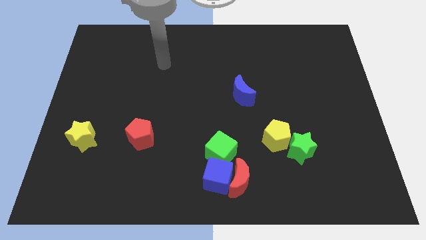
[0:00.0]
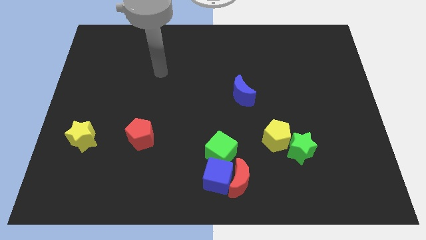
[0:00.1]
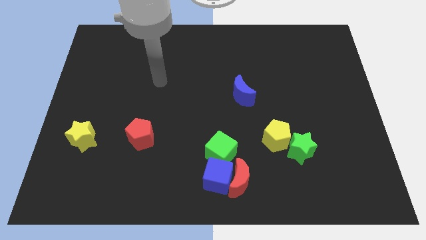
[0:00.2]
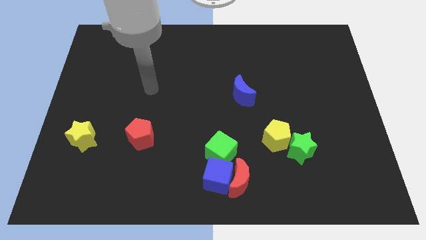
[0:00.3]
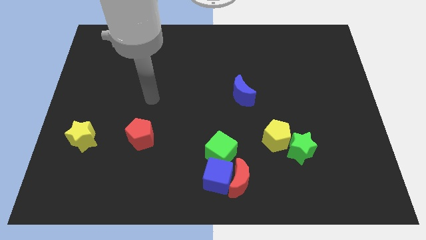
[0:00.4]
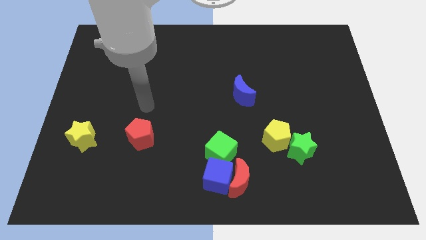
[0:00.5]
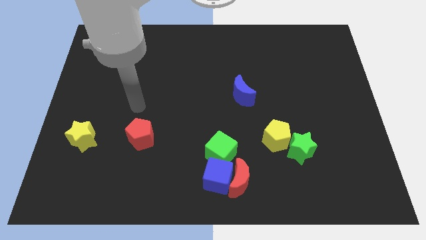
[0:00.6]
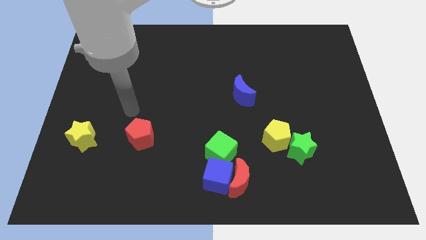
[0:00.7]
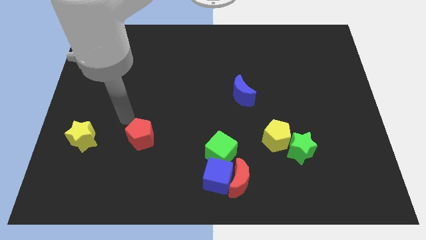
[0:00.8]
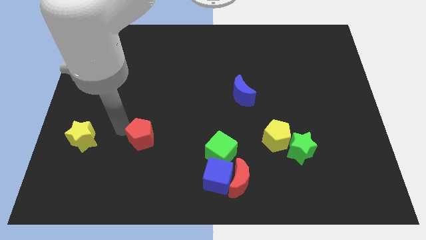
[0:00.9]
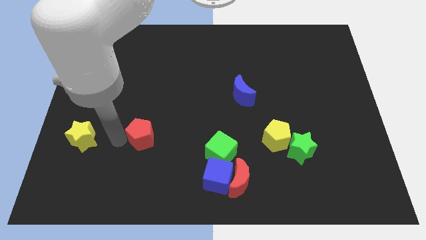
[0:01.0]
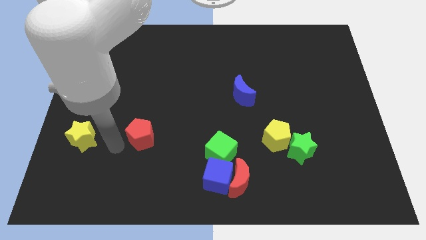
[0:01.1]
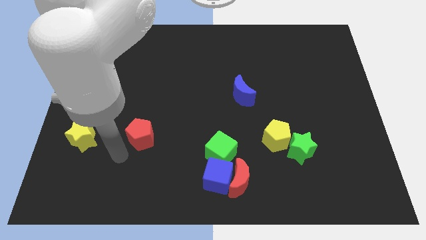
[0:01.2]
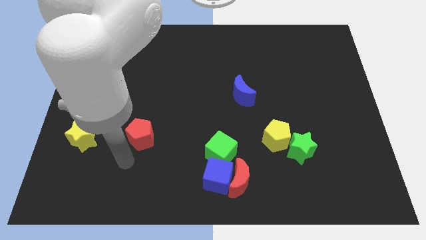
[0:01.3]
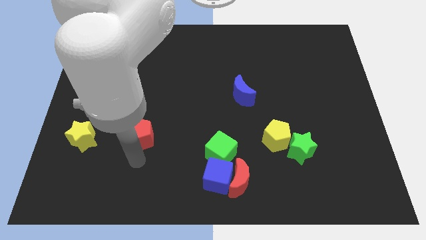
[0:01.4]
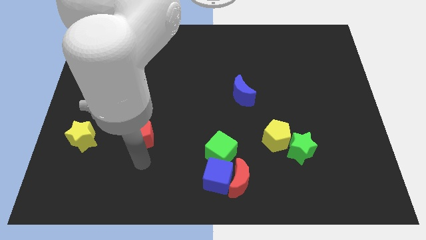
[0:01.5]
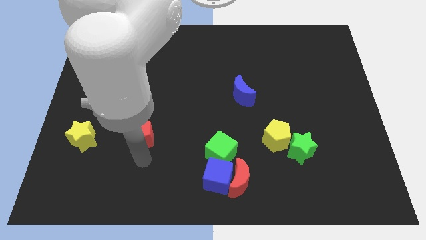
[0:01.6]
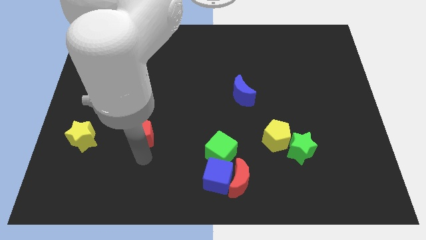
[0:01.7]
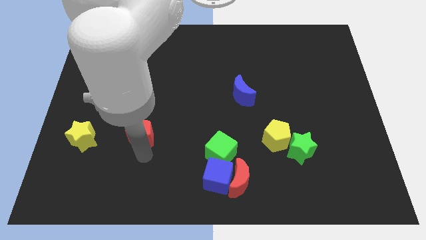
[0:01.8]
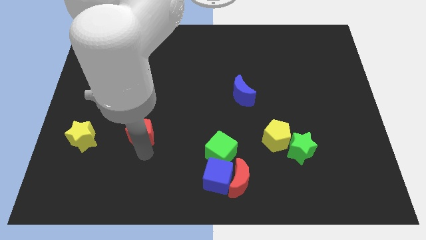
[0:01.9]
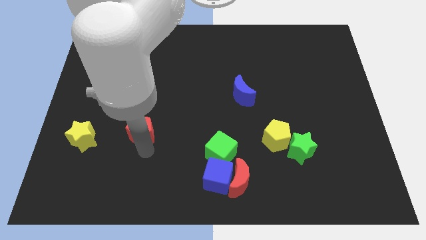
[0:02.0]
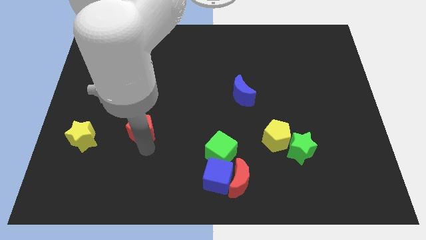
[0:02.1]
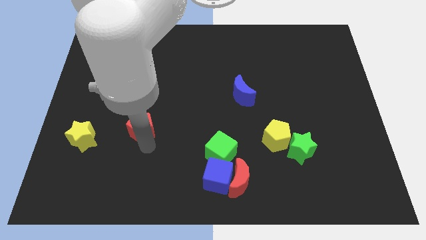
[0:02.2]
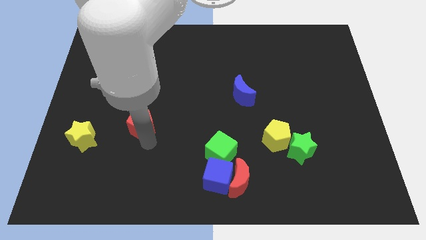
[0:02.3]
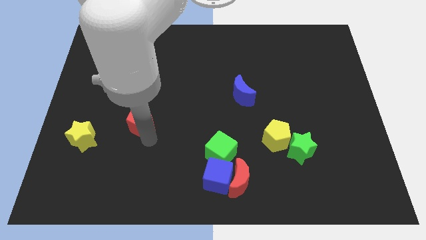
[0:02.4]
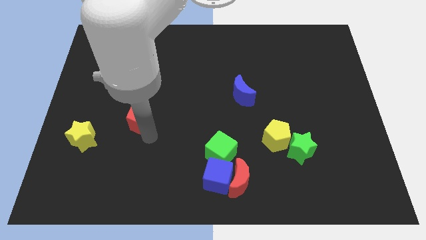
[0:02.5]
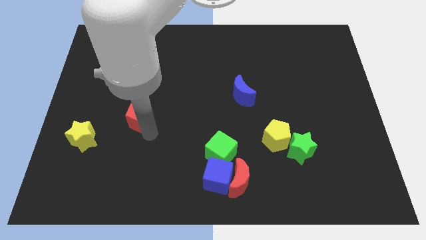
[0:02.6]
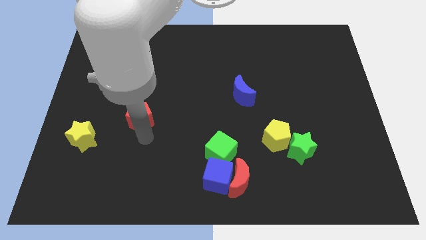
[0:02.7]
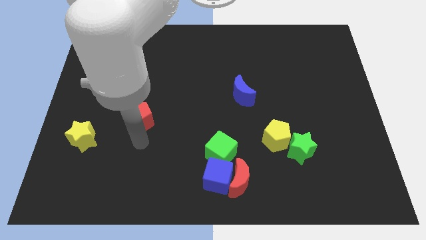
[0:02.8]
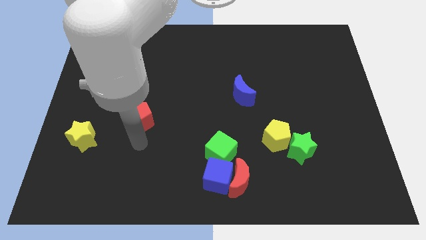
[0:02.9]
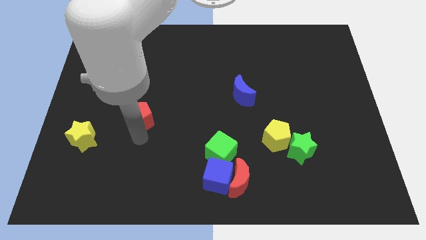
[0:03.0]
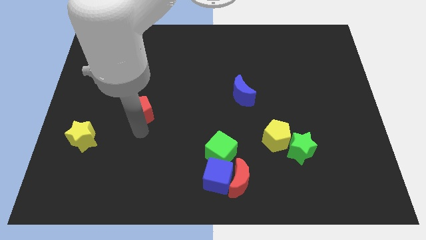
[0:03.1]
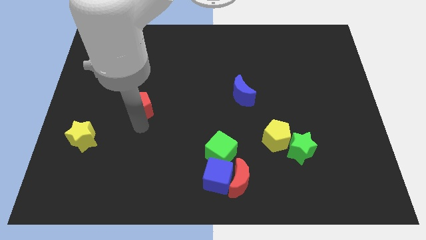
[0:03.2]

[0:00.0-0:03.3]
push the red pentagon a bit upwards

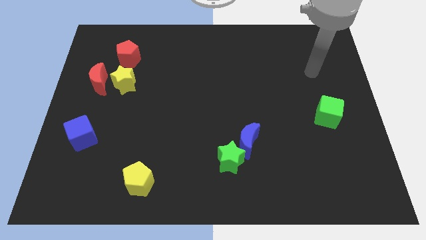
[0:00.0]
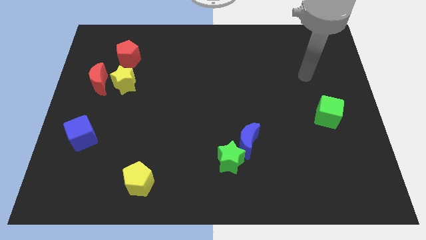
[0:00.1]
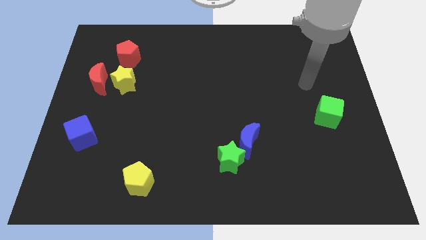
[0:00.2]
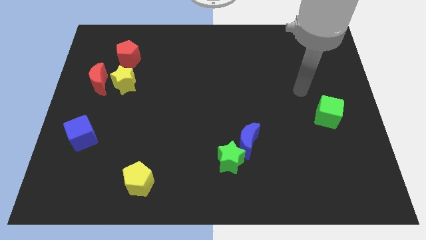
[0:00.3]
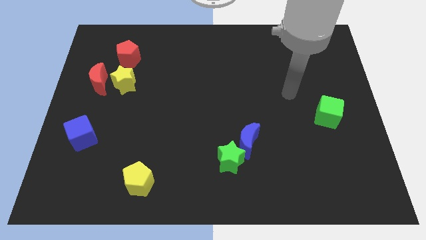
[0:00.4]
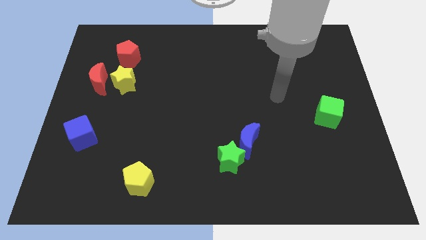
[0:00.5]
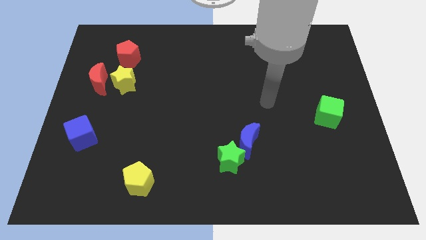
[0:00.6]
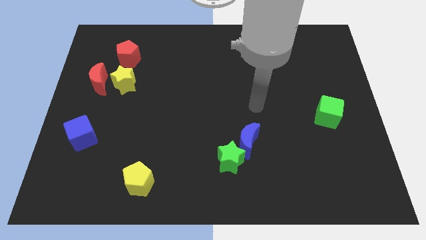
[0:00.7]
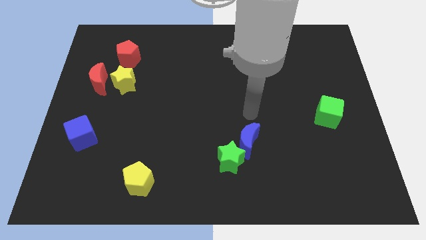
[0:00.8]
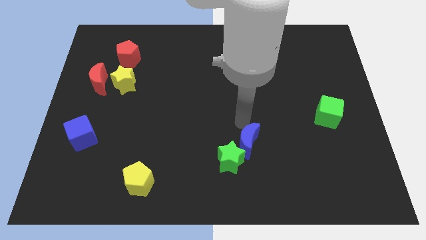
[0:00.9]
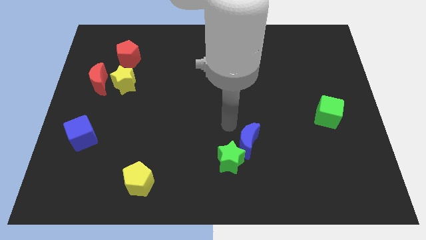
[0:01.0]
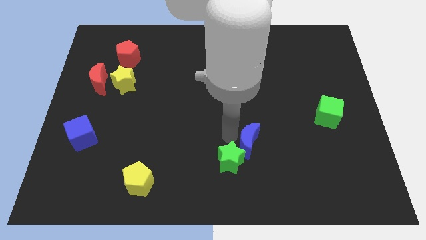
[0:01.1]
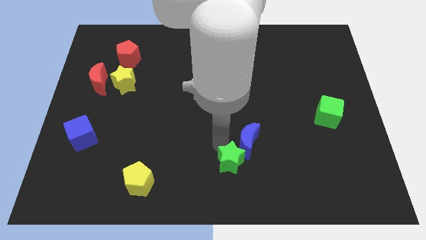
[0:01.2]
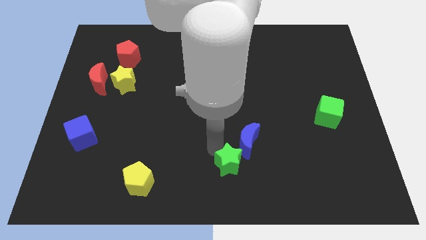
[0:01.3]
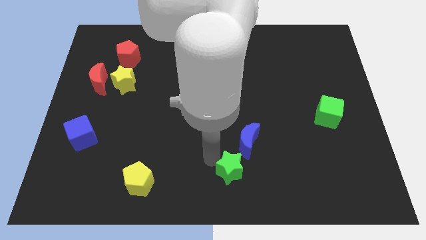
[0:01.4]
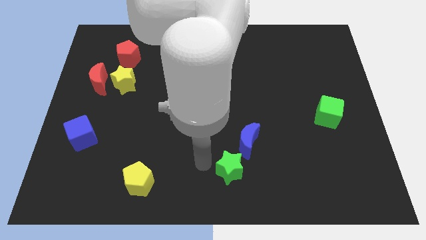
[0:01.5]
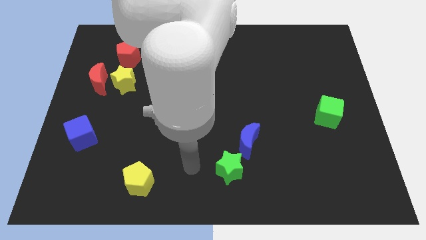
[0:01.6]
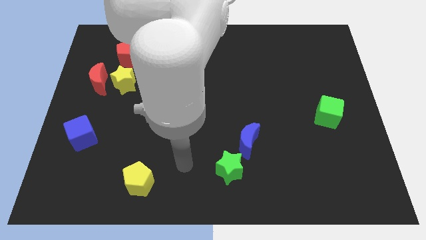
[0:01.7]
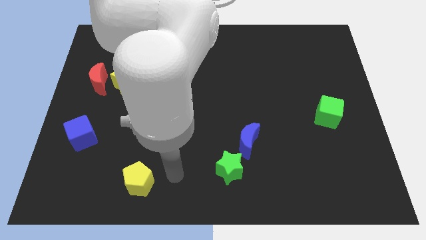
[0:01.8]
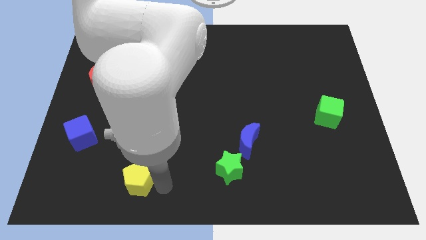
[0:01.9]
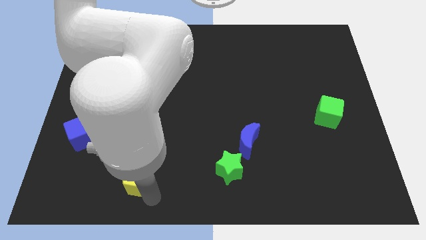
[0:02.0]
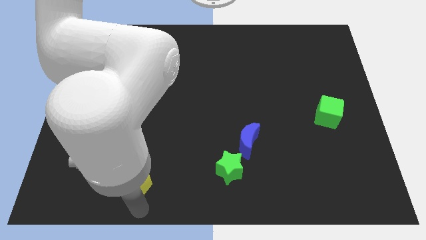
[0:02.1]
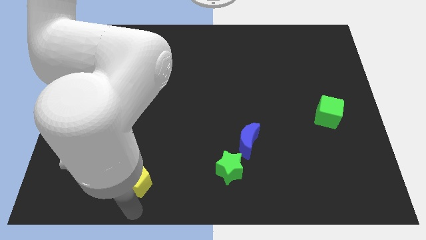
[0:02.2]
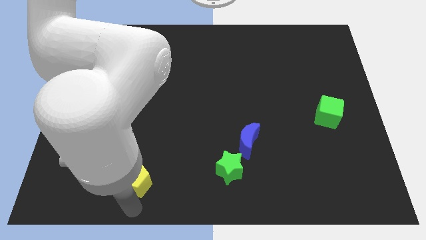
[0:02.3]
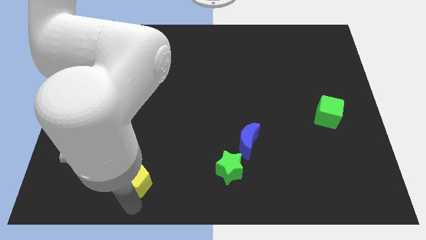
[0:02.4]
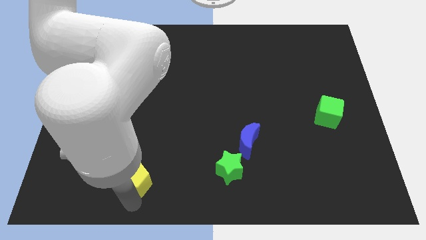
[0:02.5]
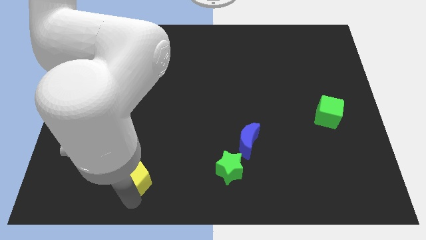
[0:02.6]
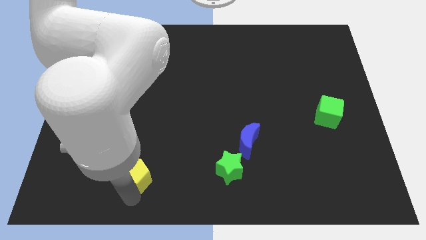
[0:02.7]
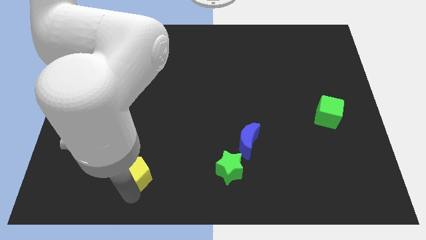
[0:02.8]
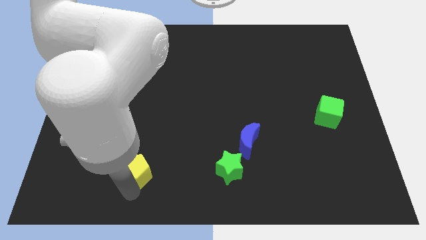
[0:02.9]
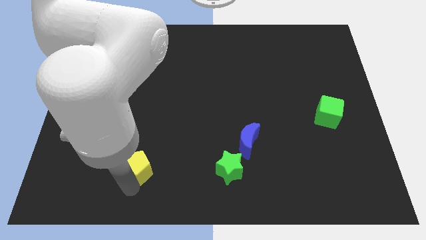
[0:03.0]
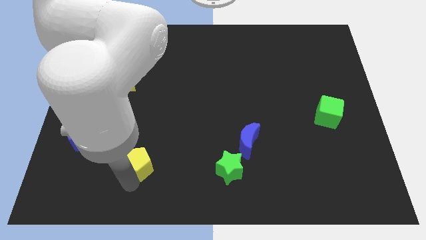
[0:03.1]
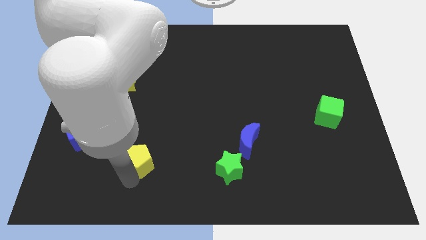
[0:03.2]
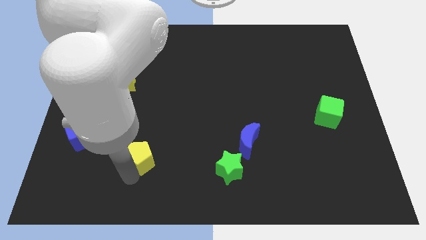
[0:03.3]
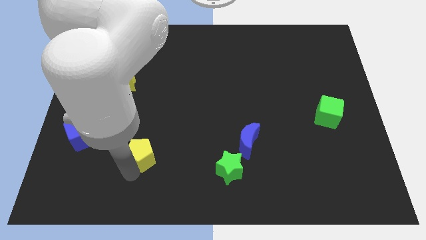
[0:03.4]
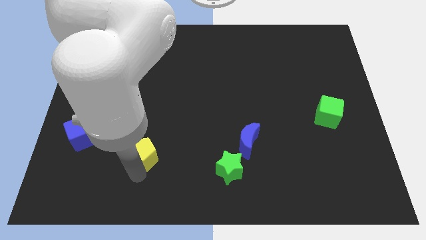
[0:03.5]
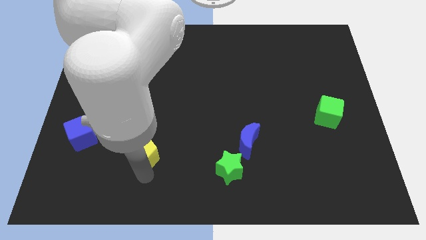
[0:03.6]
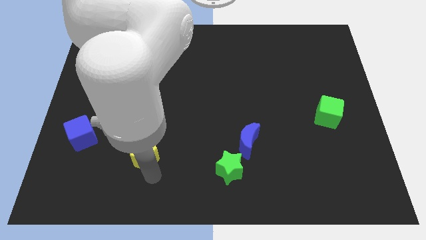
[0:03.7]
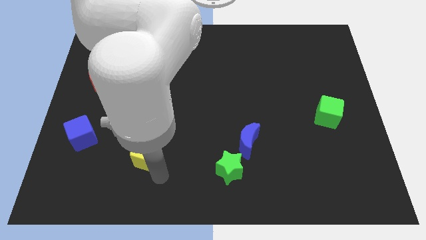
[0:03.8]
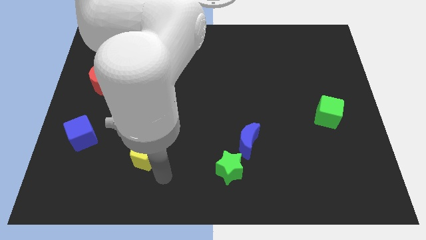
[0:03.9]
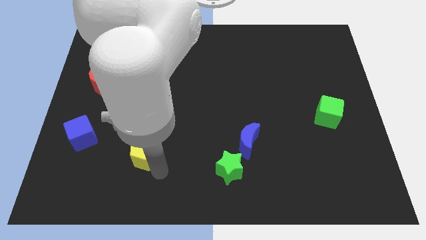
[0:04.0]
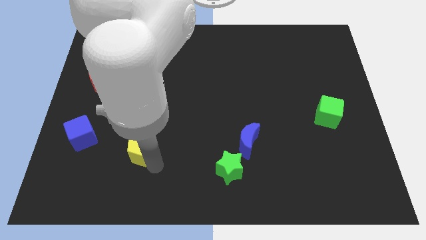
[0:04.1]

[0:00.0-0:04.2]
slightly push the yellow pentagon up
